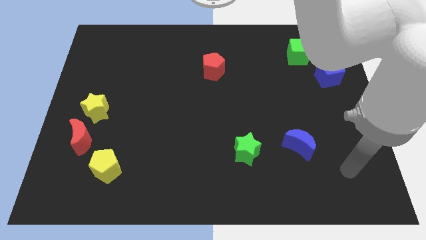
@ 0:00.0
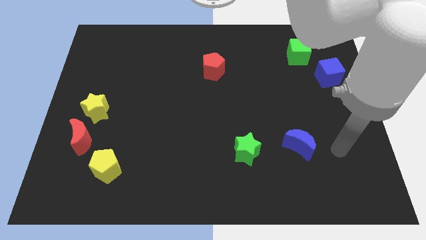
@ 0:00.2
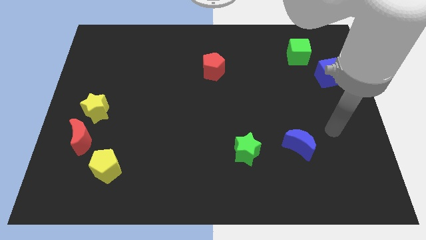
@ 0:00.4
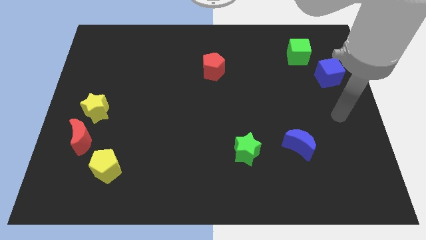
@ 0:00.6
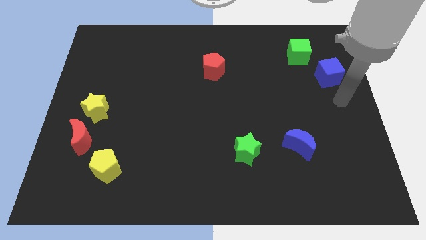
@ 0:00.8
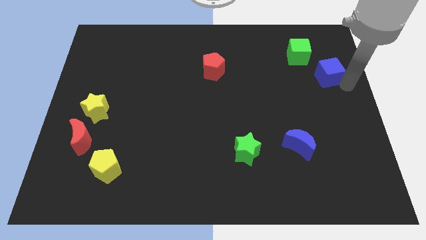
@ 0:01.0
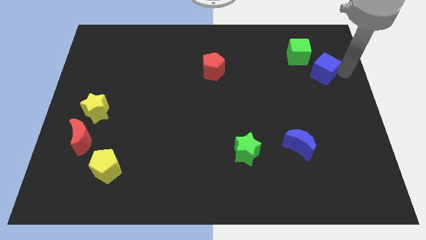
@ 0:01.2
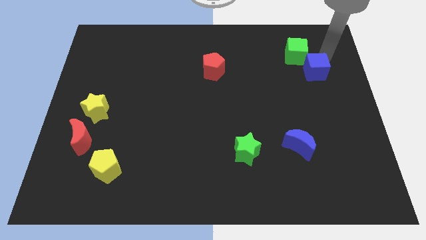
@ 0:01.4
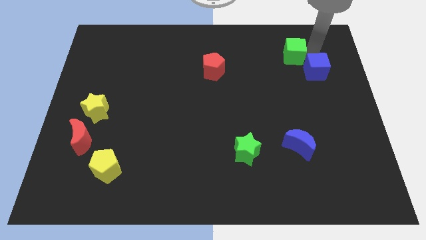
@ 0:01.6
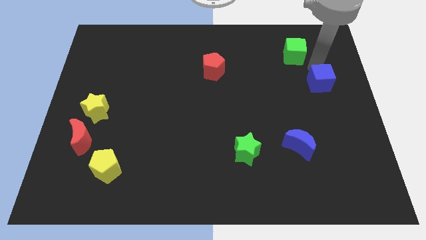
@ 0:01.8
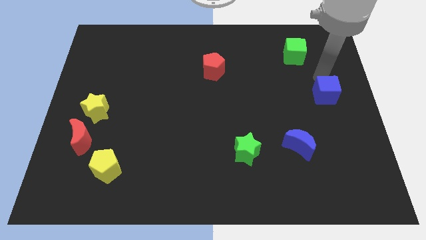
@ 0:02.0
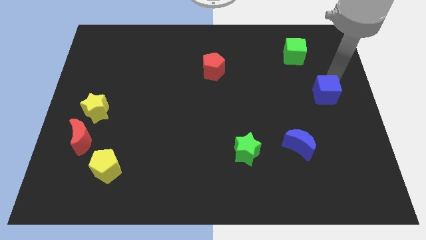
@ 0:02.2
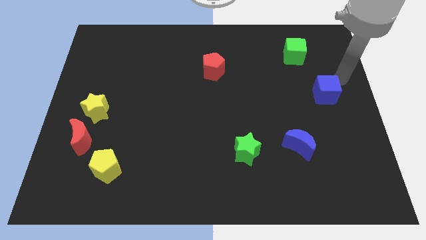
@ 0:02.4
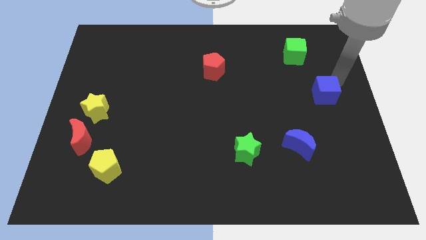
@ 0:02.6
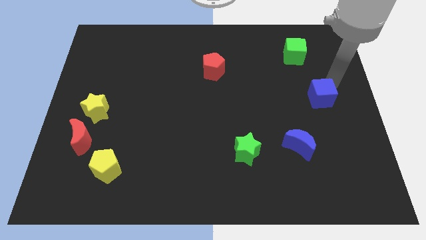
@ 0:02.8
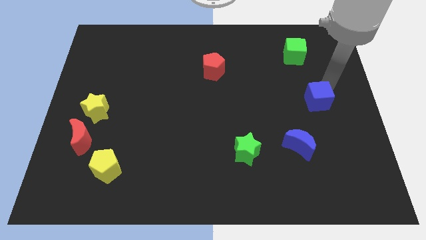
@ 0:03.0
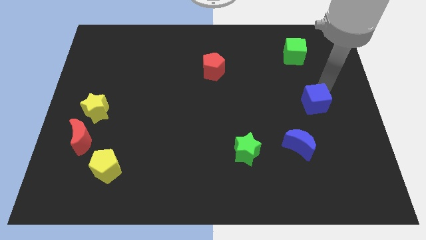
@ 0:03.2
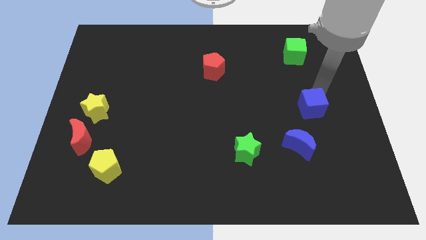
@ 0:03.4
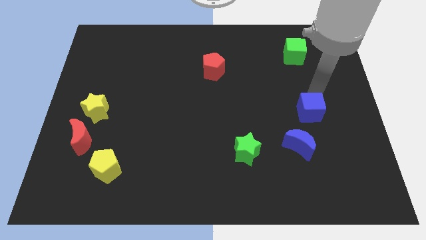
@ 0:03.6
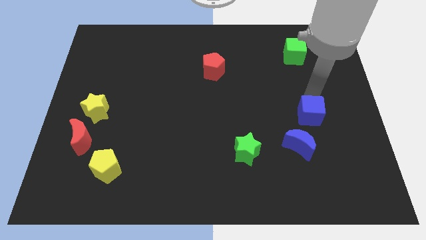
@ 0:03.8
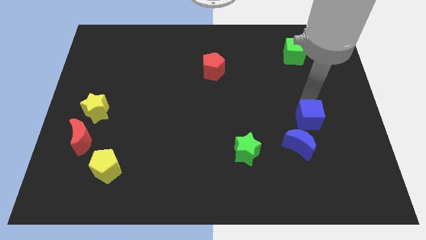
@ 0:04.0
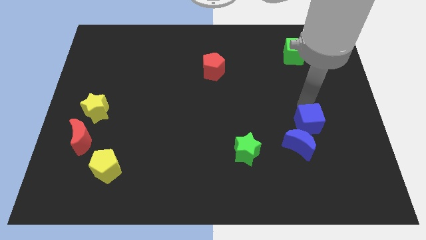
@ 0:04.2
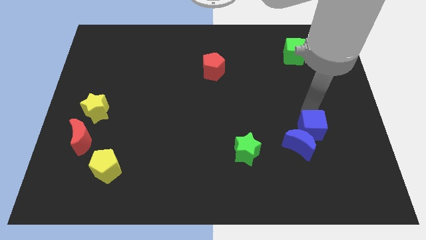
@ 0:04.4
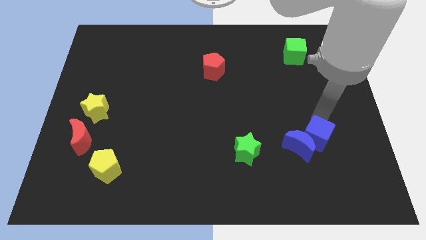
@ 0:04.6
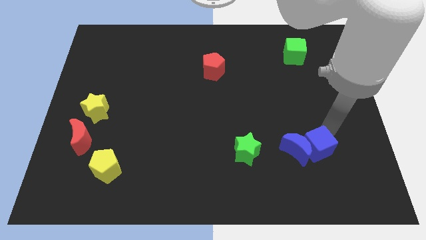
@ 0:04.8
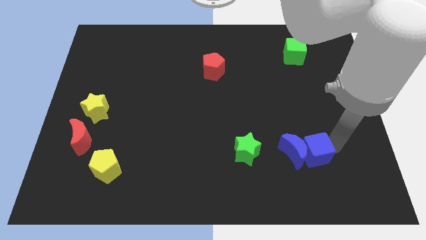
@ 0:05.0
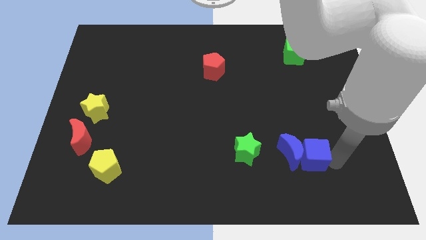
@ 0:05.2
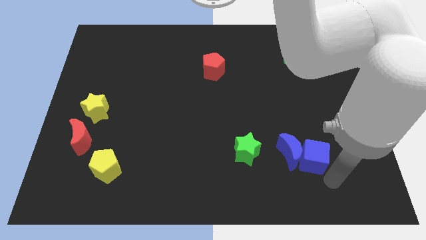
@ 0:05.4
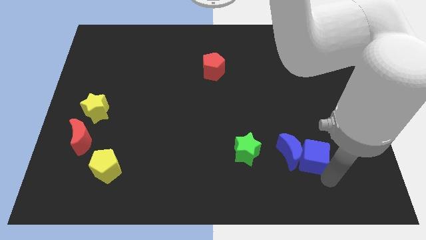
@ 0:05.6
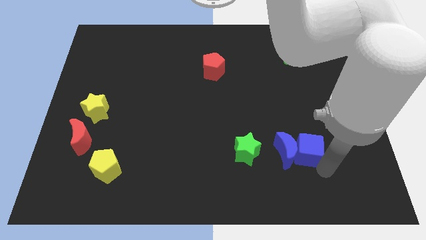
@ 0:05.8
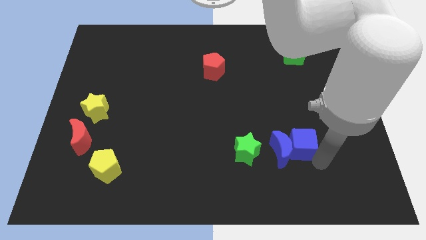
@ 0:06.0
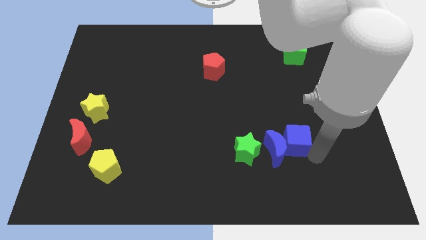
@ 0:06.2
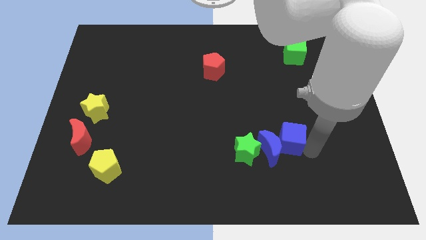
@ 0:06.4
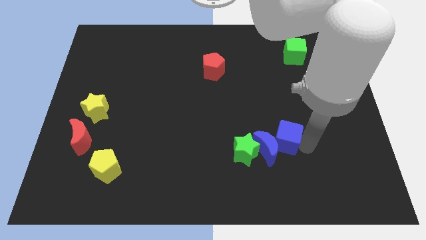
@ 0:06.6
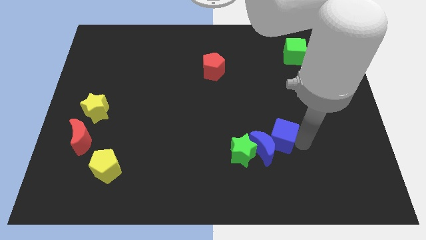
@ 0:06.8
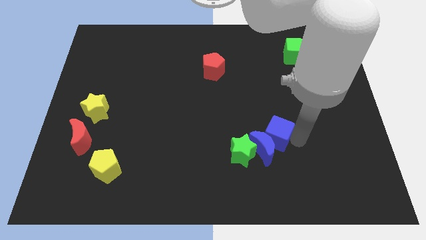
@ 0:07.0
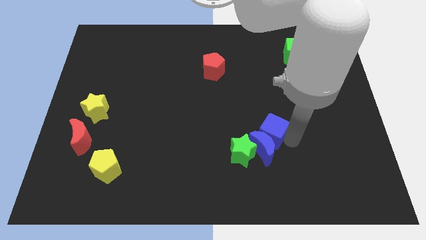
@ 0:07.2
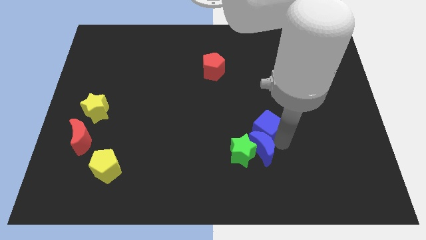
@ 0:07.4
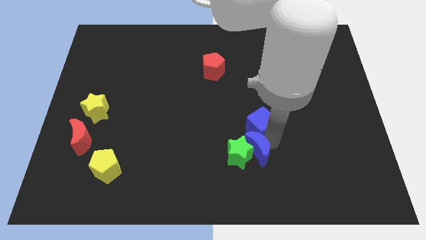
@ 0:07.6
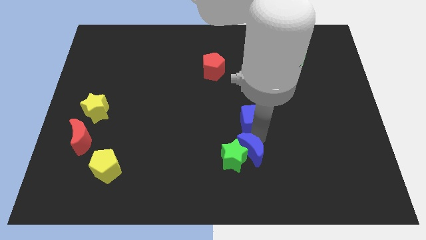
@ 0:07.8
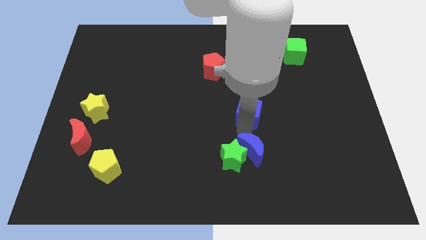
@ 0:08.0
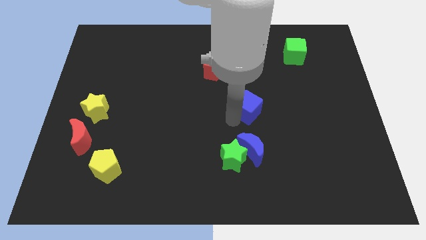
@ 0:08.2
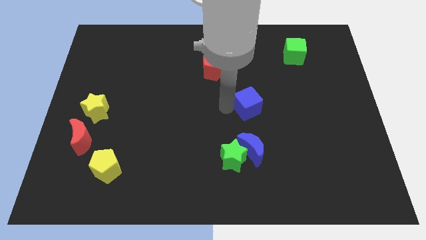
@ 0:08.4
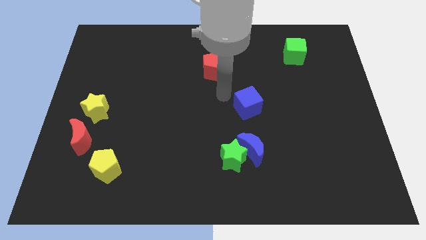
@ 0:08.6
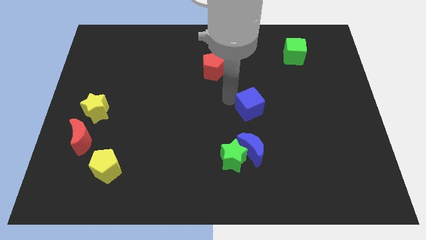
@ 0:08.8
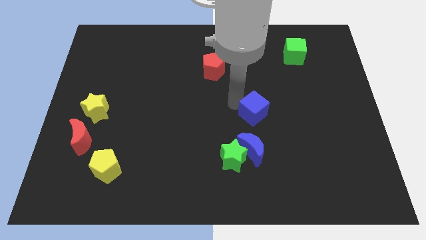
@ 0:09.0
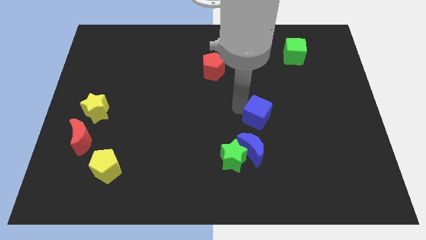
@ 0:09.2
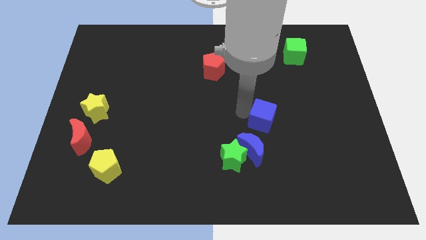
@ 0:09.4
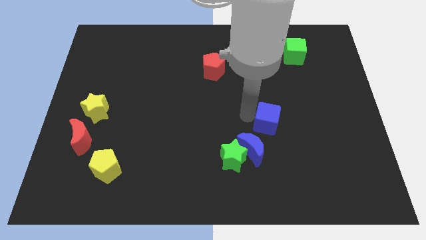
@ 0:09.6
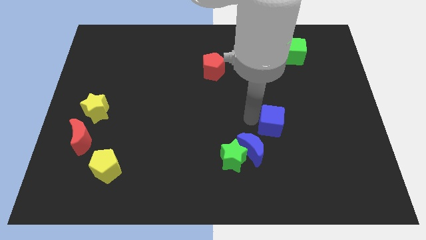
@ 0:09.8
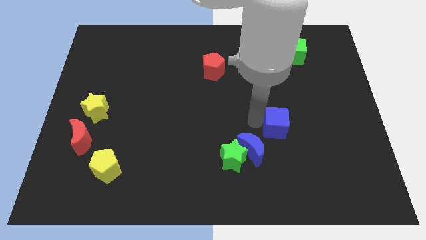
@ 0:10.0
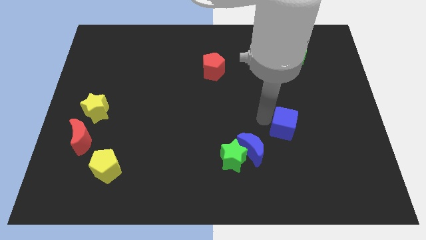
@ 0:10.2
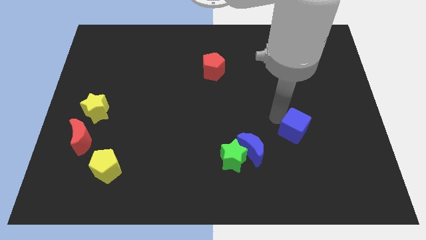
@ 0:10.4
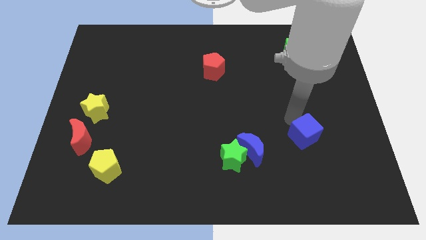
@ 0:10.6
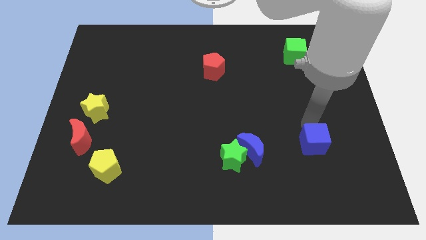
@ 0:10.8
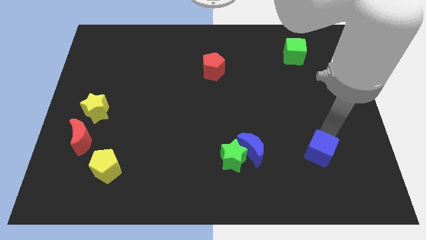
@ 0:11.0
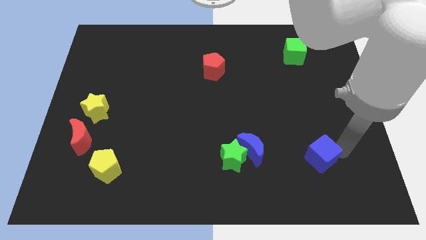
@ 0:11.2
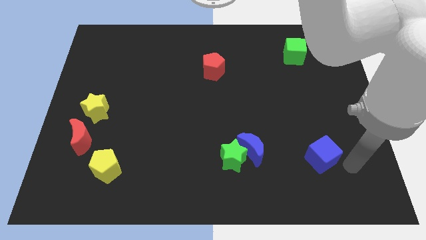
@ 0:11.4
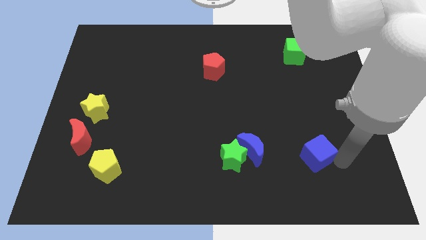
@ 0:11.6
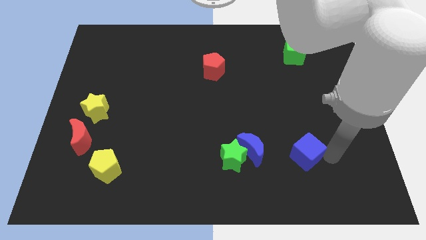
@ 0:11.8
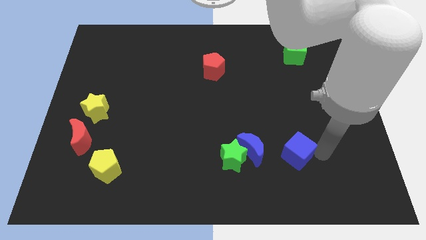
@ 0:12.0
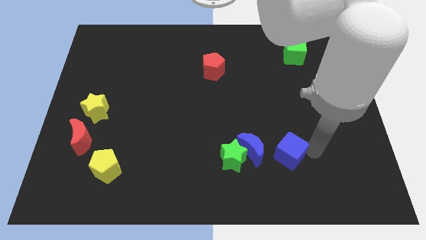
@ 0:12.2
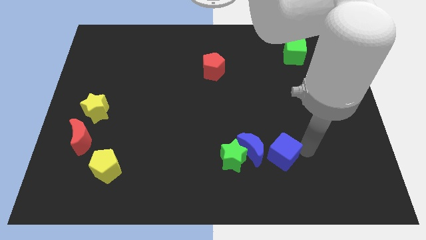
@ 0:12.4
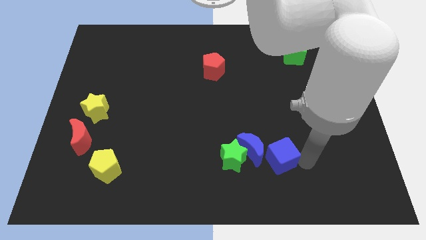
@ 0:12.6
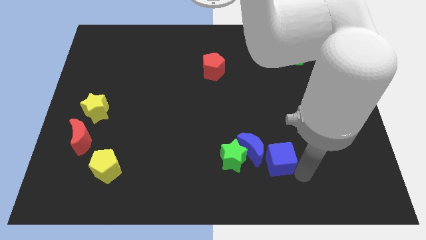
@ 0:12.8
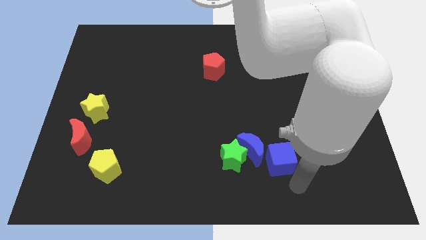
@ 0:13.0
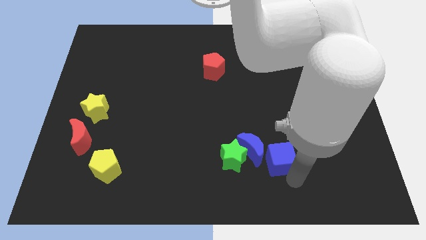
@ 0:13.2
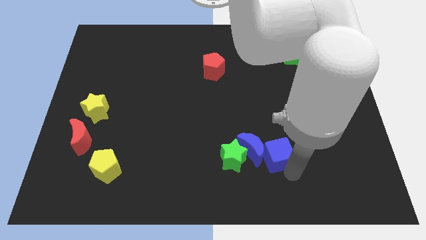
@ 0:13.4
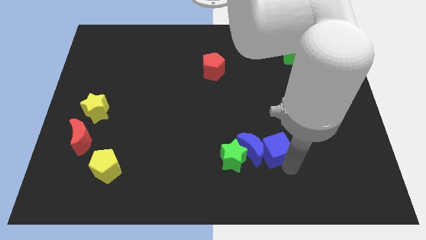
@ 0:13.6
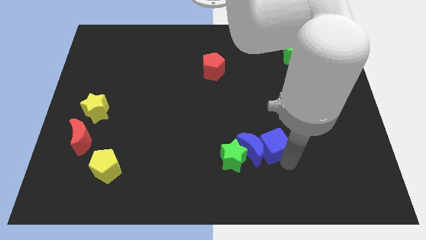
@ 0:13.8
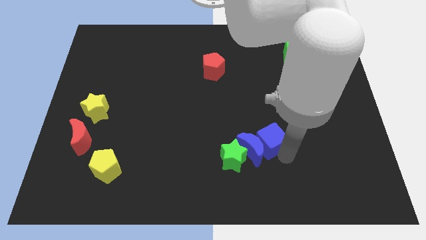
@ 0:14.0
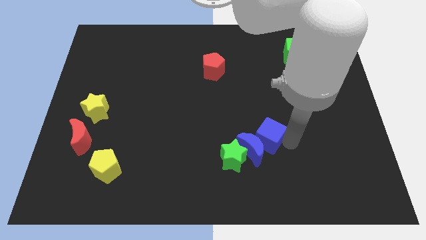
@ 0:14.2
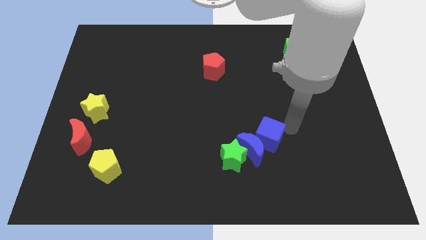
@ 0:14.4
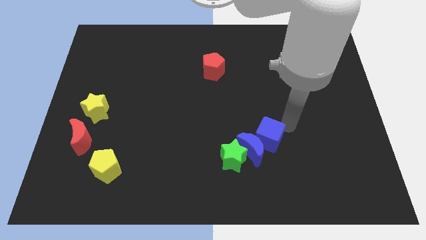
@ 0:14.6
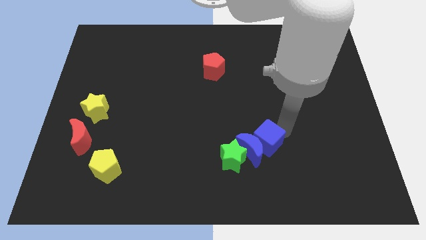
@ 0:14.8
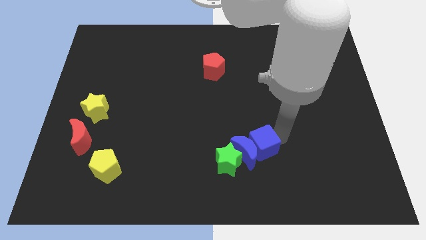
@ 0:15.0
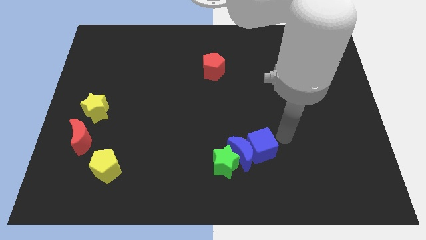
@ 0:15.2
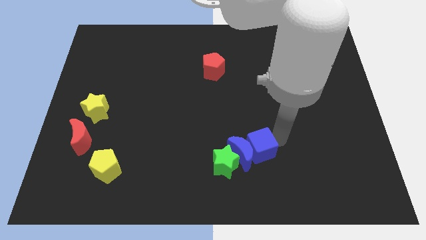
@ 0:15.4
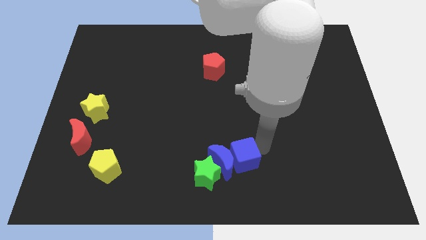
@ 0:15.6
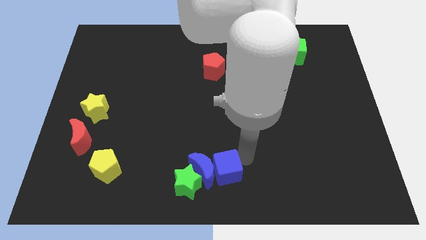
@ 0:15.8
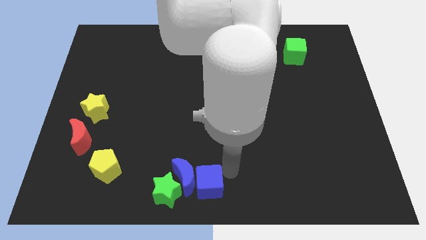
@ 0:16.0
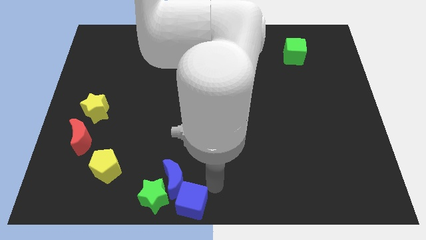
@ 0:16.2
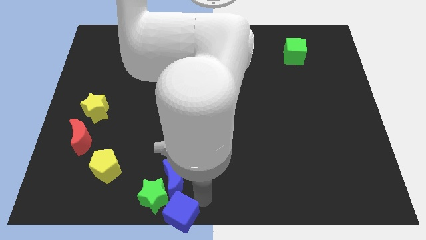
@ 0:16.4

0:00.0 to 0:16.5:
move the blue cube towards the green star
